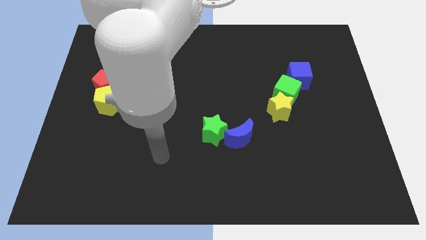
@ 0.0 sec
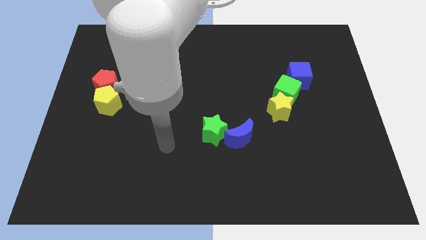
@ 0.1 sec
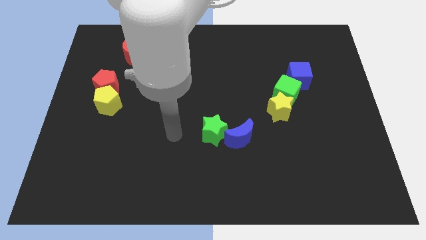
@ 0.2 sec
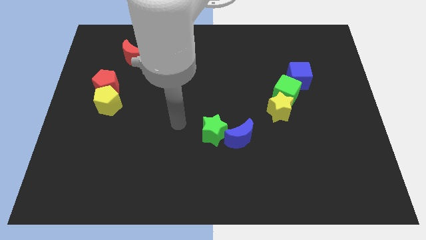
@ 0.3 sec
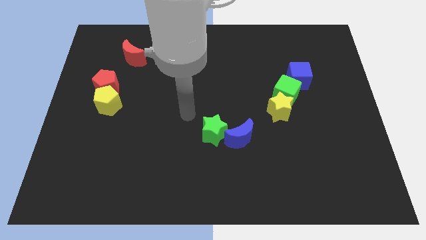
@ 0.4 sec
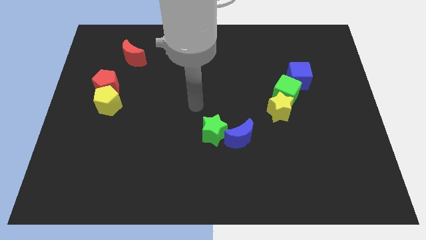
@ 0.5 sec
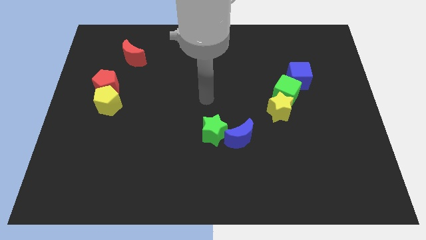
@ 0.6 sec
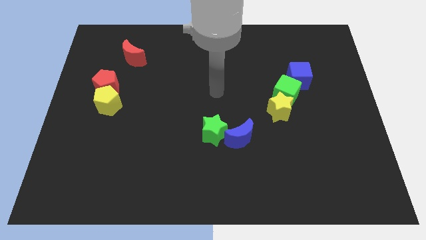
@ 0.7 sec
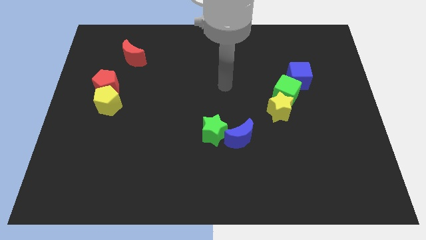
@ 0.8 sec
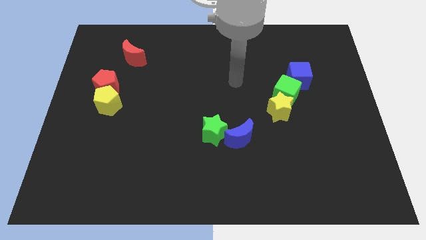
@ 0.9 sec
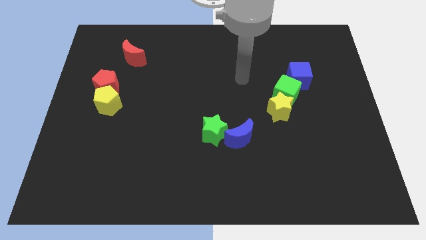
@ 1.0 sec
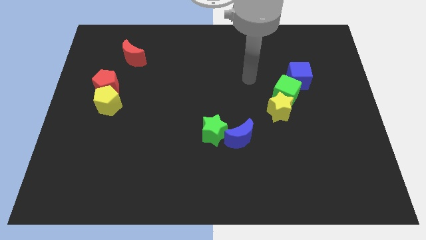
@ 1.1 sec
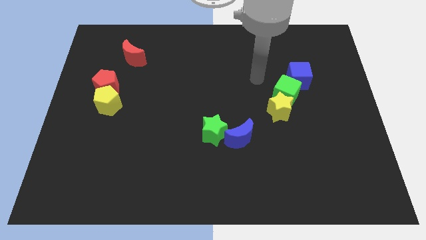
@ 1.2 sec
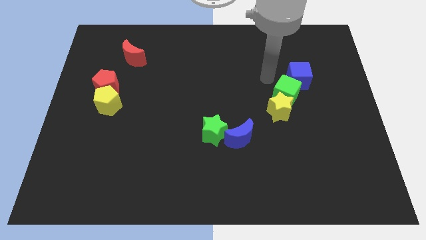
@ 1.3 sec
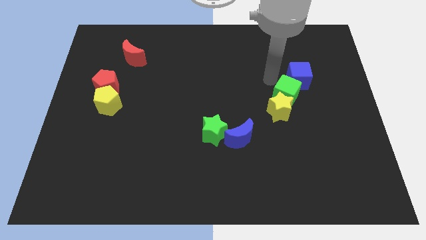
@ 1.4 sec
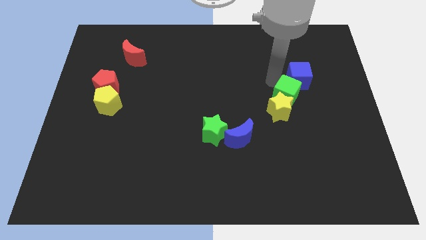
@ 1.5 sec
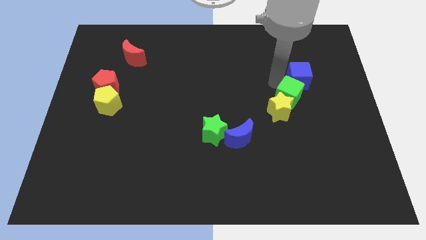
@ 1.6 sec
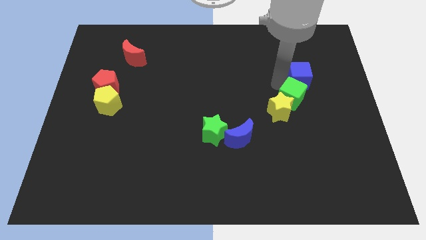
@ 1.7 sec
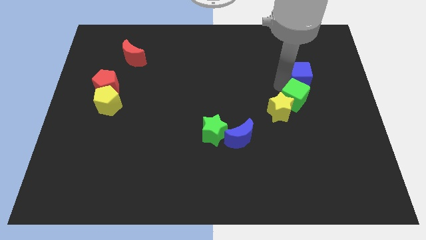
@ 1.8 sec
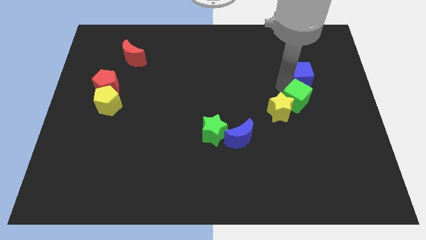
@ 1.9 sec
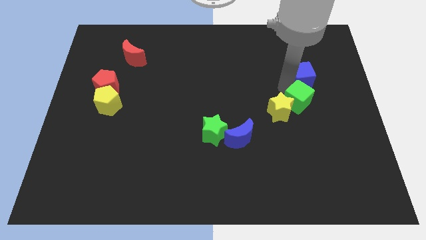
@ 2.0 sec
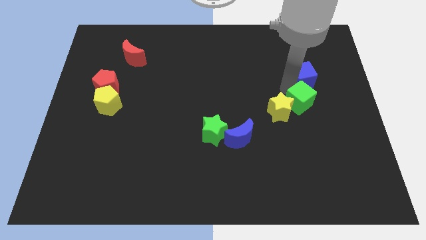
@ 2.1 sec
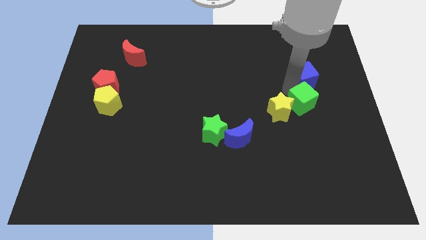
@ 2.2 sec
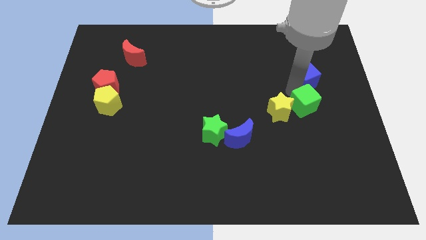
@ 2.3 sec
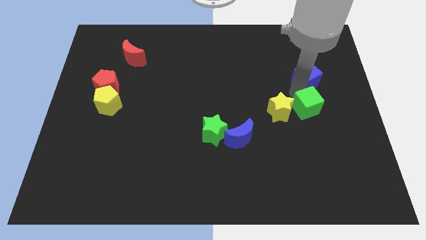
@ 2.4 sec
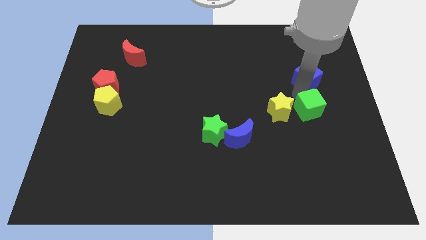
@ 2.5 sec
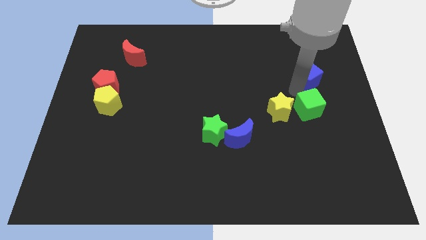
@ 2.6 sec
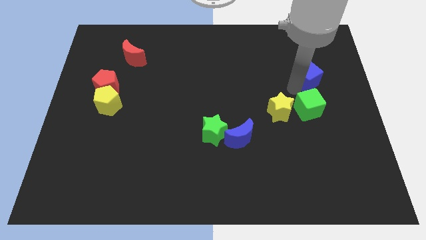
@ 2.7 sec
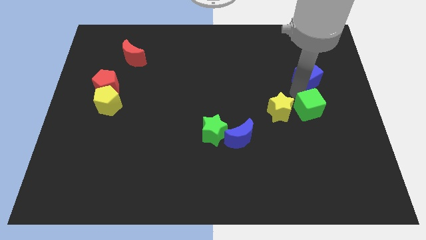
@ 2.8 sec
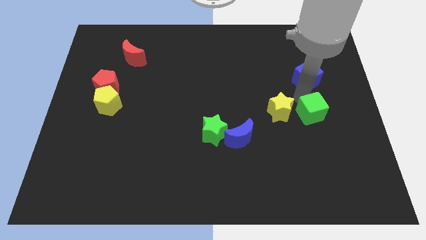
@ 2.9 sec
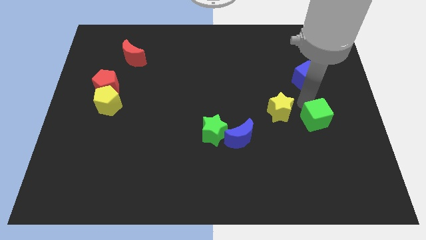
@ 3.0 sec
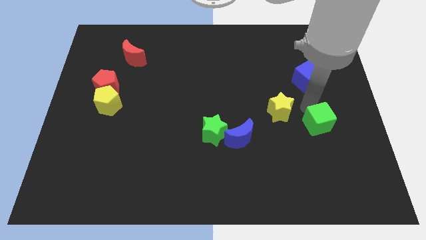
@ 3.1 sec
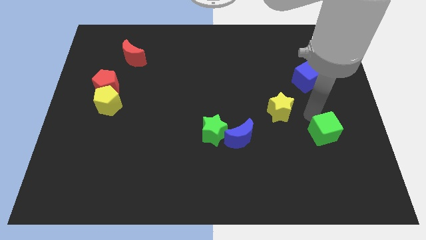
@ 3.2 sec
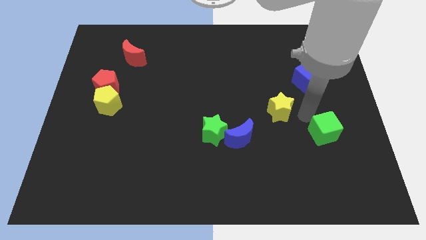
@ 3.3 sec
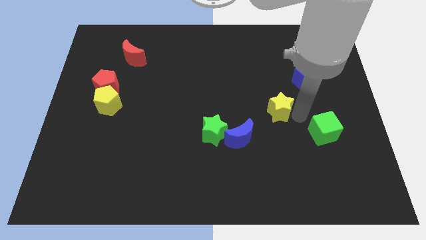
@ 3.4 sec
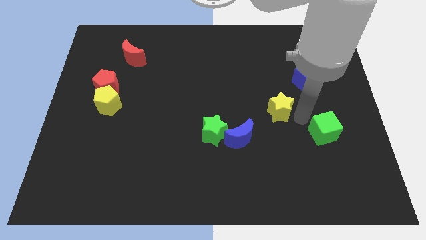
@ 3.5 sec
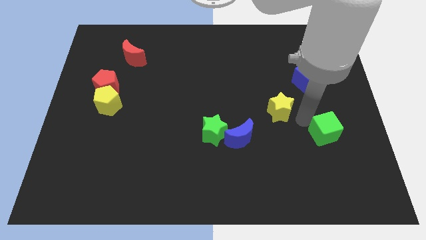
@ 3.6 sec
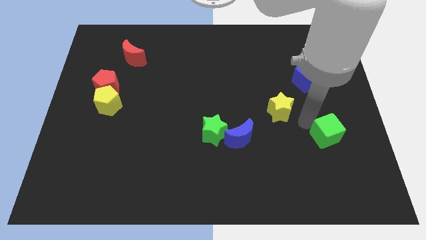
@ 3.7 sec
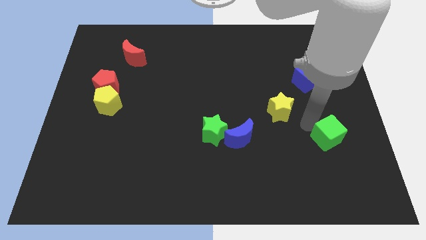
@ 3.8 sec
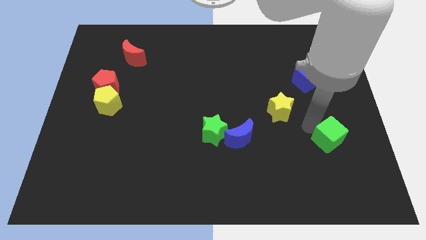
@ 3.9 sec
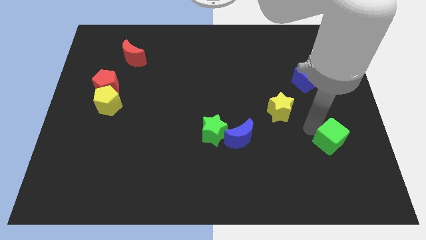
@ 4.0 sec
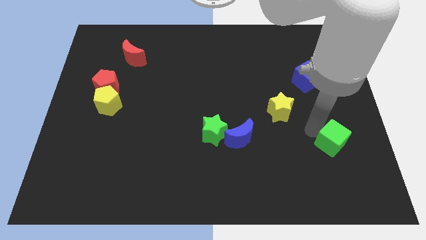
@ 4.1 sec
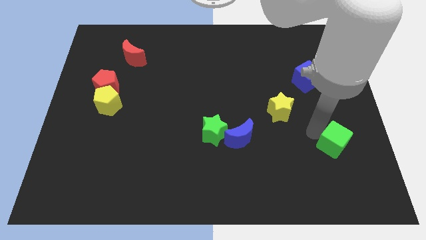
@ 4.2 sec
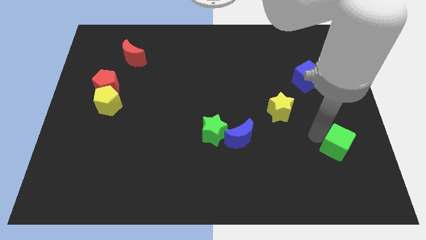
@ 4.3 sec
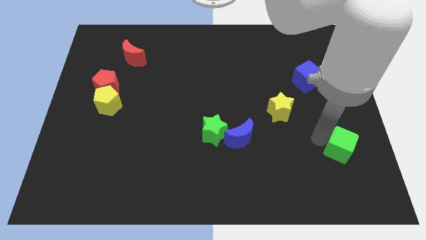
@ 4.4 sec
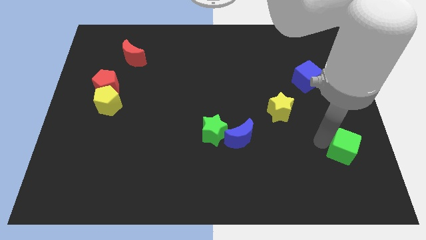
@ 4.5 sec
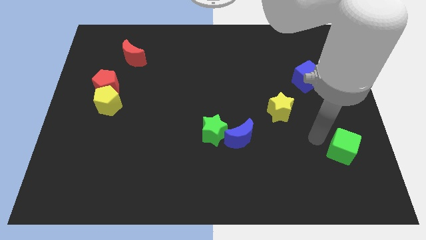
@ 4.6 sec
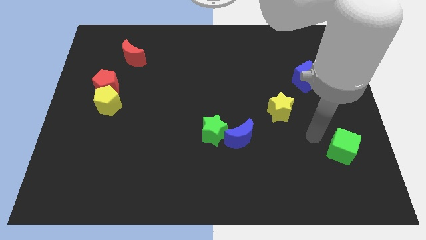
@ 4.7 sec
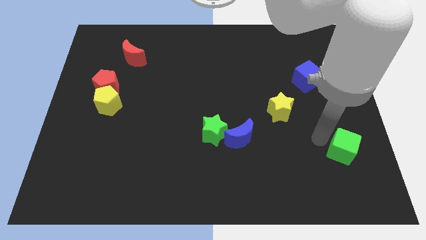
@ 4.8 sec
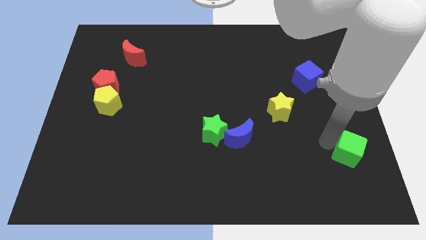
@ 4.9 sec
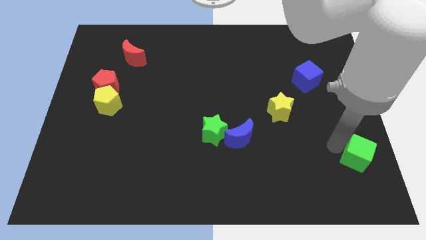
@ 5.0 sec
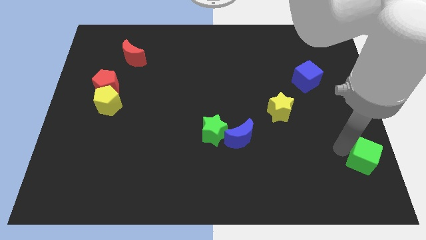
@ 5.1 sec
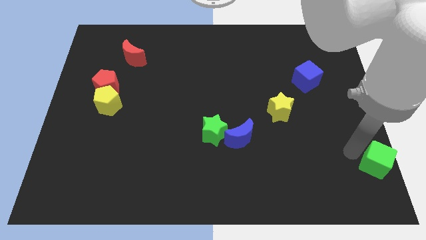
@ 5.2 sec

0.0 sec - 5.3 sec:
slide the green cube to the bottom right of the board

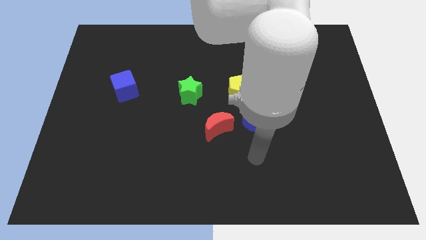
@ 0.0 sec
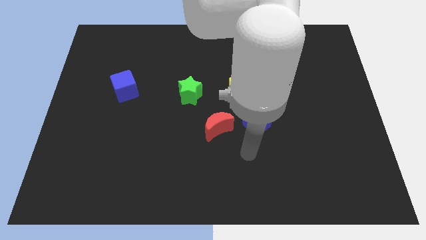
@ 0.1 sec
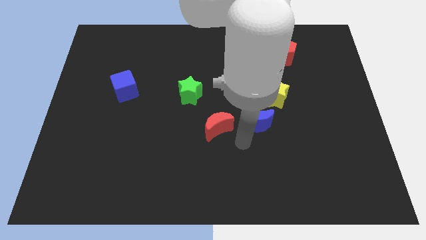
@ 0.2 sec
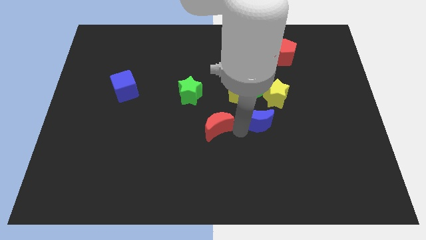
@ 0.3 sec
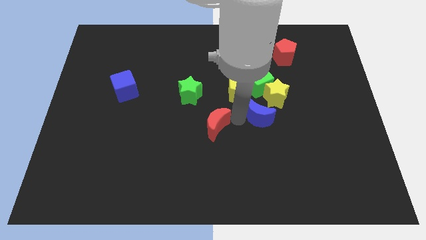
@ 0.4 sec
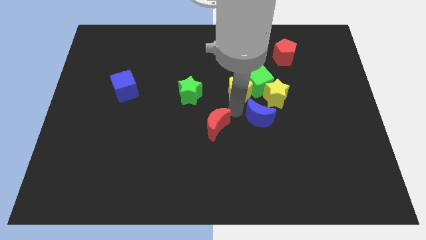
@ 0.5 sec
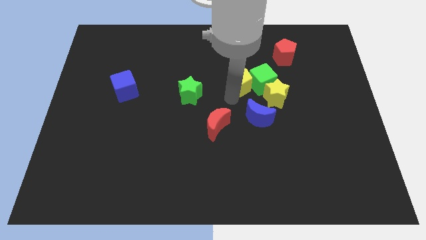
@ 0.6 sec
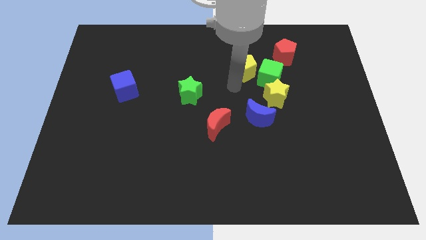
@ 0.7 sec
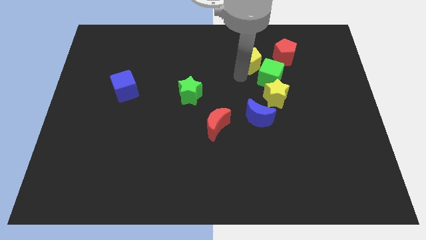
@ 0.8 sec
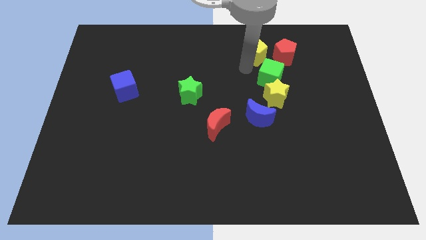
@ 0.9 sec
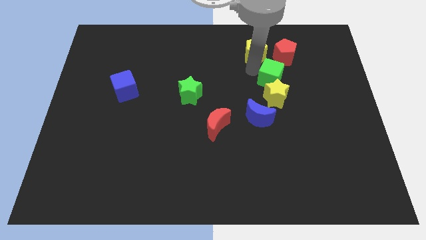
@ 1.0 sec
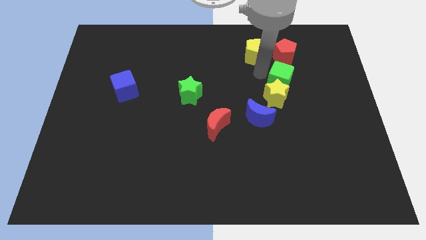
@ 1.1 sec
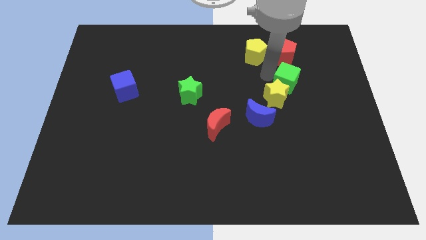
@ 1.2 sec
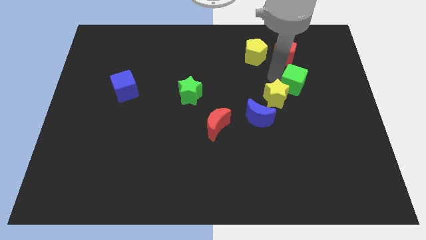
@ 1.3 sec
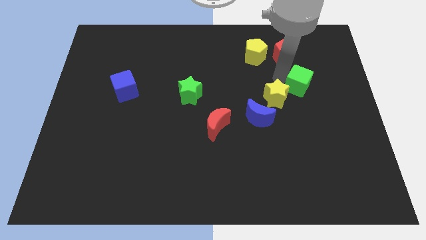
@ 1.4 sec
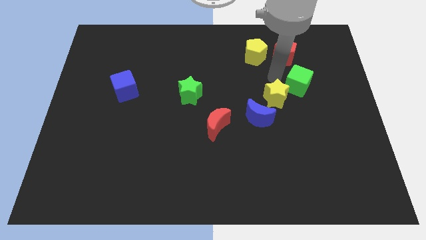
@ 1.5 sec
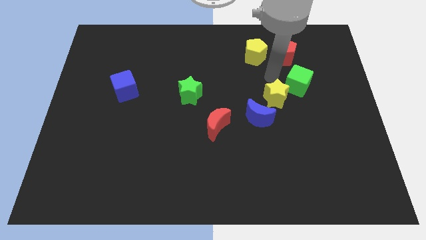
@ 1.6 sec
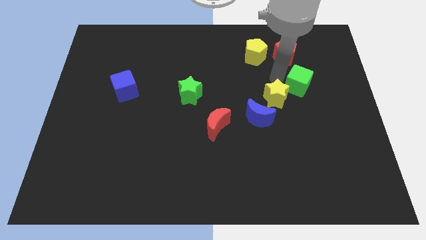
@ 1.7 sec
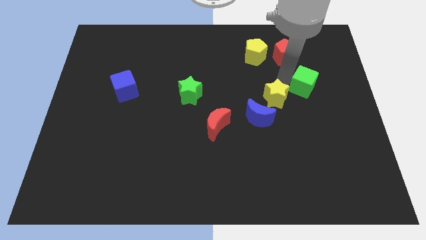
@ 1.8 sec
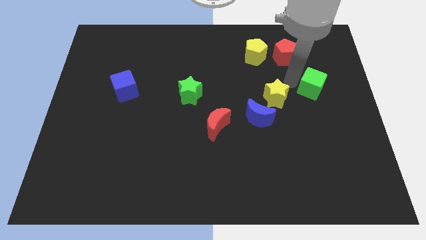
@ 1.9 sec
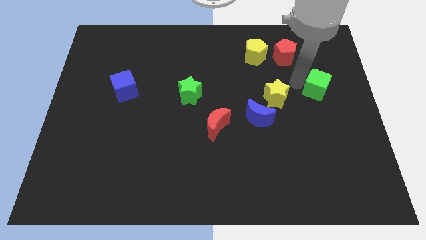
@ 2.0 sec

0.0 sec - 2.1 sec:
push the green cube to the right side of the board
